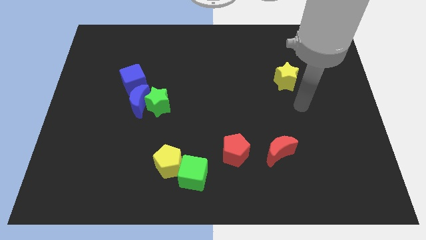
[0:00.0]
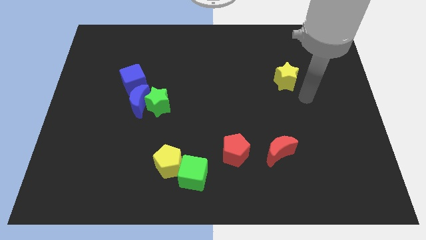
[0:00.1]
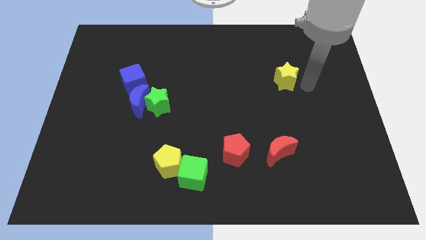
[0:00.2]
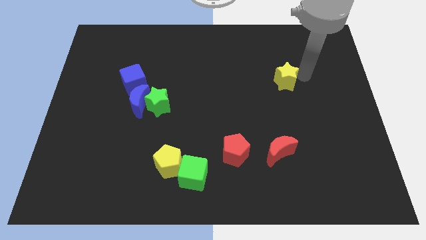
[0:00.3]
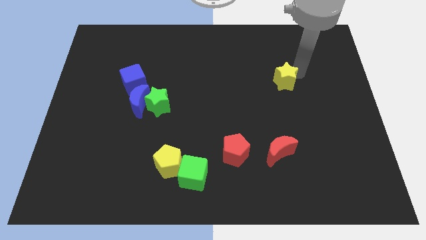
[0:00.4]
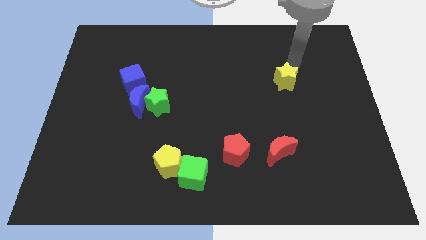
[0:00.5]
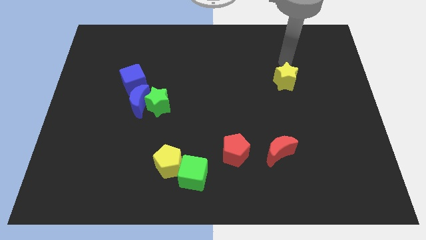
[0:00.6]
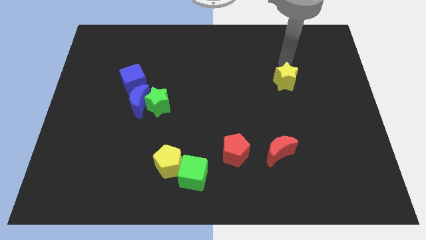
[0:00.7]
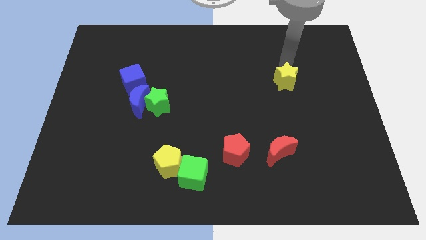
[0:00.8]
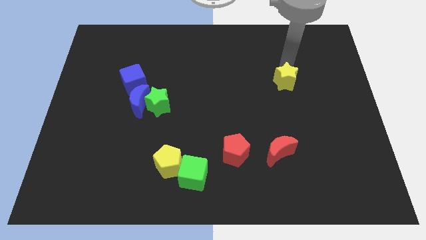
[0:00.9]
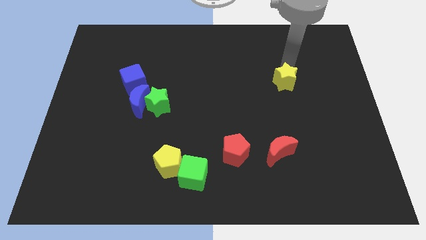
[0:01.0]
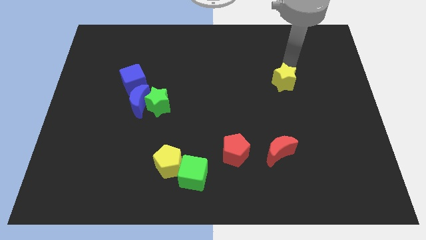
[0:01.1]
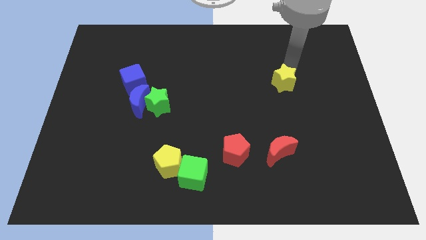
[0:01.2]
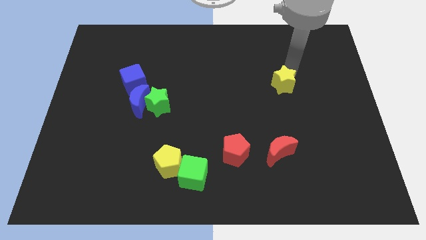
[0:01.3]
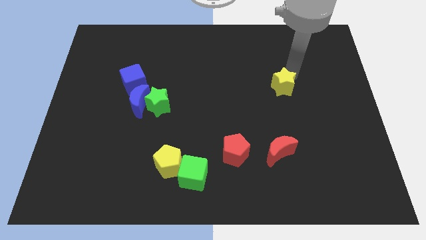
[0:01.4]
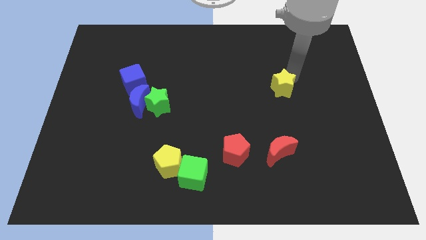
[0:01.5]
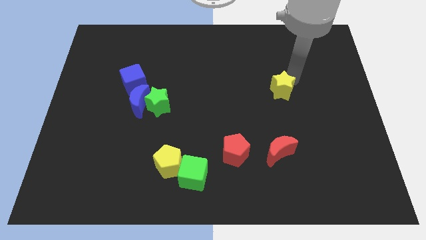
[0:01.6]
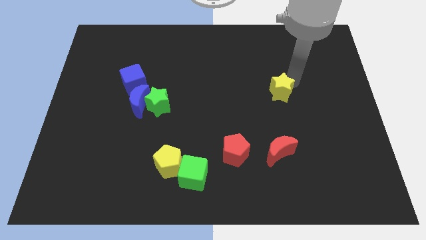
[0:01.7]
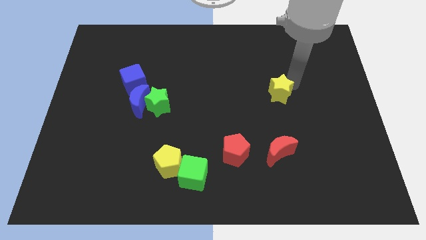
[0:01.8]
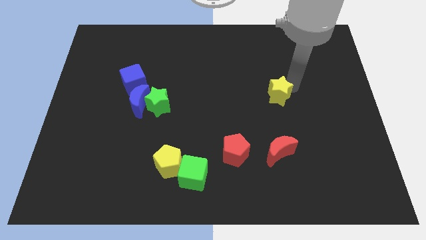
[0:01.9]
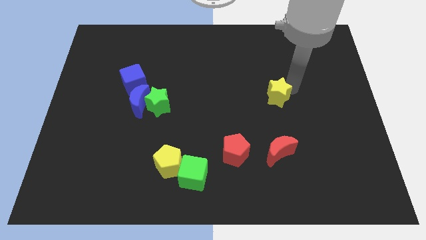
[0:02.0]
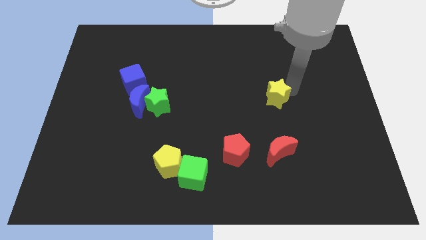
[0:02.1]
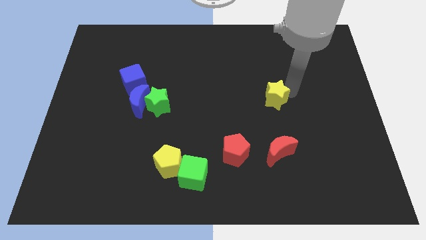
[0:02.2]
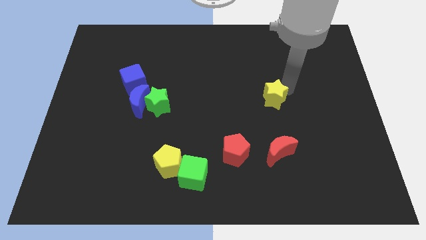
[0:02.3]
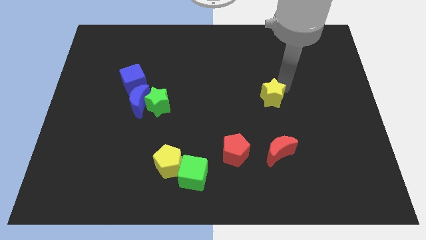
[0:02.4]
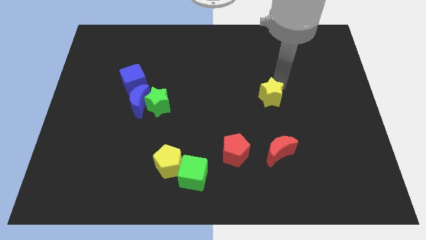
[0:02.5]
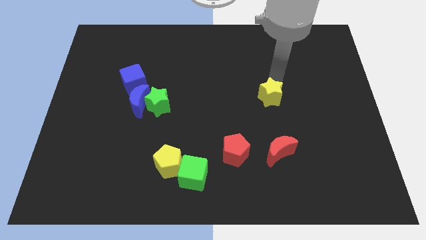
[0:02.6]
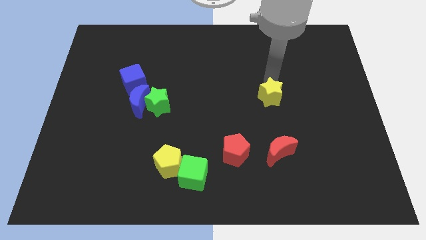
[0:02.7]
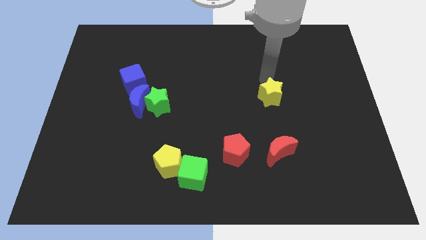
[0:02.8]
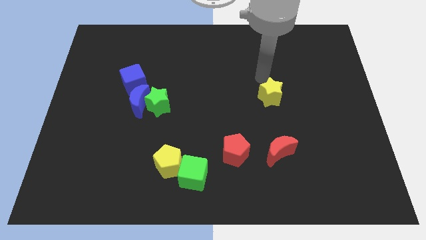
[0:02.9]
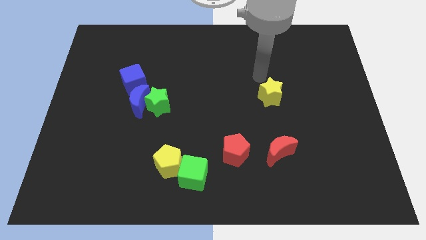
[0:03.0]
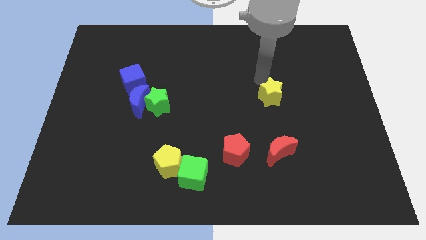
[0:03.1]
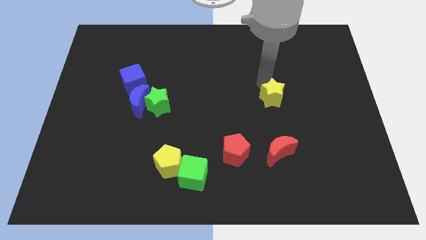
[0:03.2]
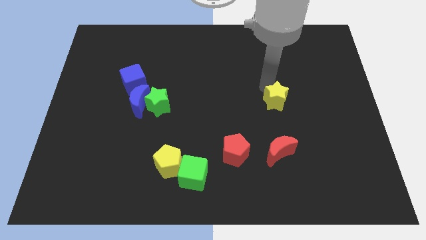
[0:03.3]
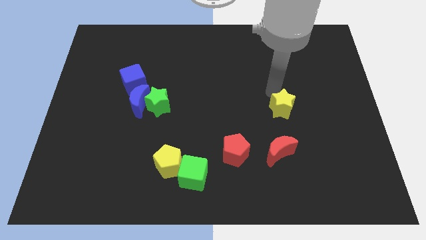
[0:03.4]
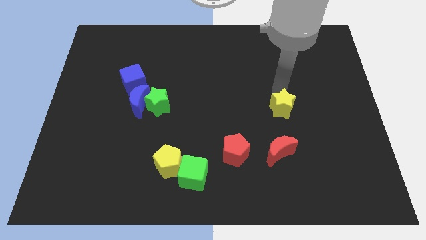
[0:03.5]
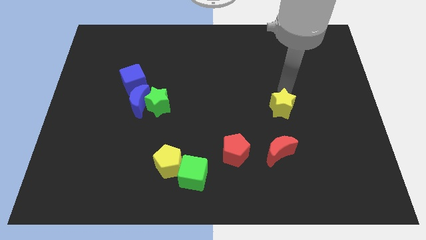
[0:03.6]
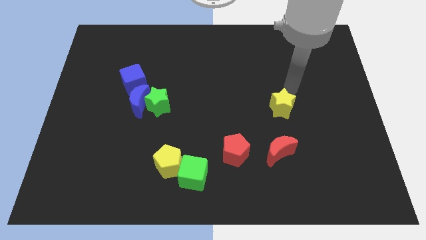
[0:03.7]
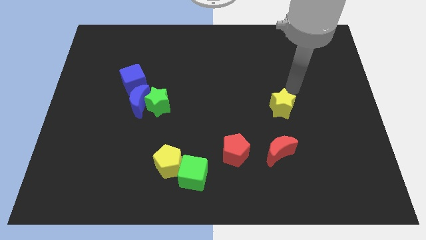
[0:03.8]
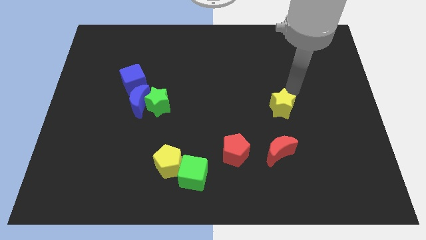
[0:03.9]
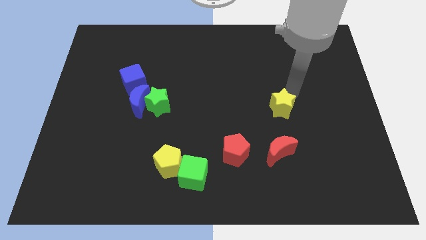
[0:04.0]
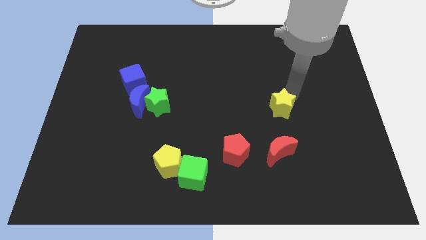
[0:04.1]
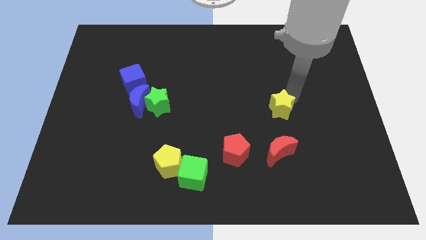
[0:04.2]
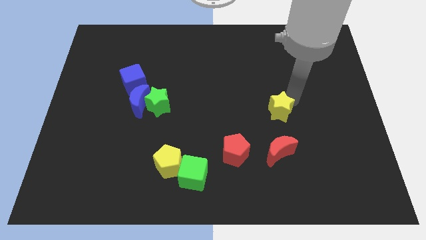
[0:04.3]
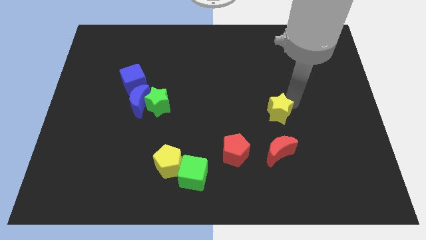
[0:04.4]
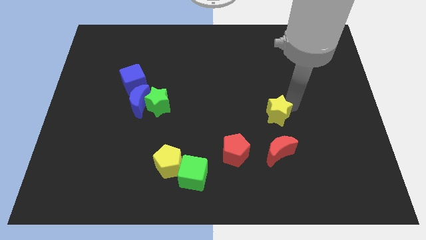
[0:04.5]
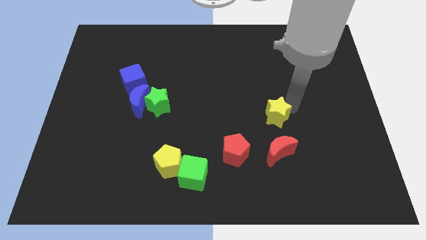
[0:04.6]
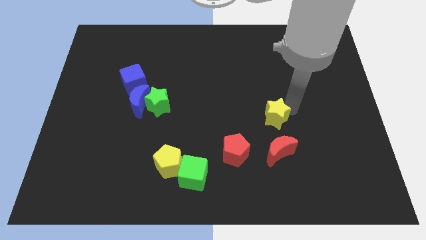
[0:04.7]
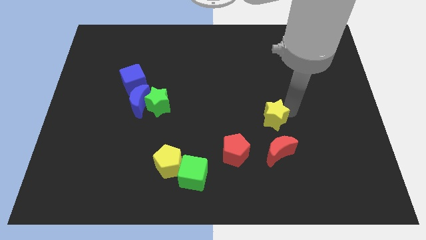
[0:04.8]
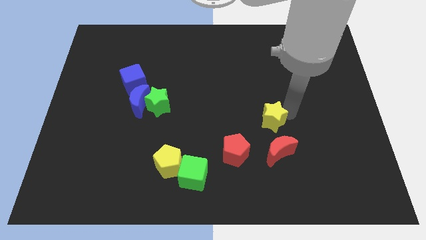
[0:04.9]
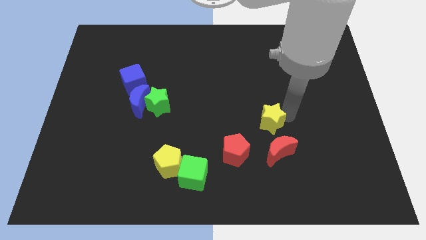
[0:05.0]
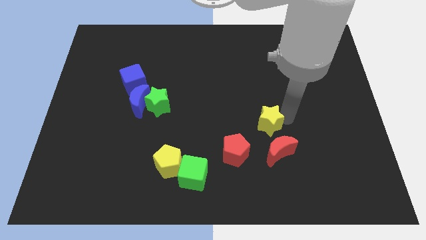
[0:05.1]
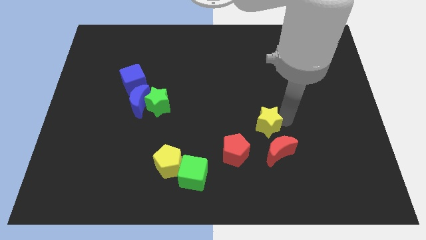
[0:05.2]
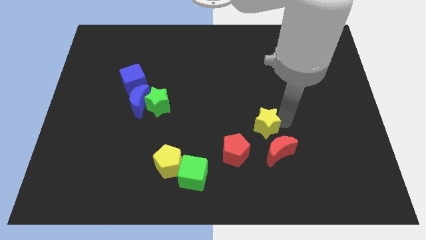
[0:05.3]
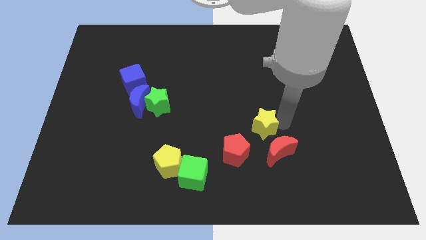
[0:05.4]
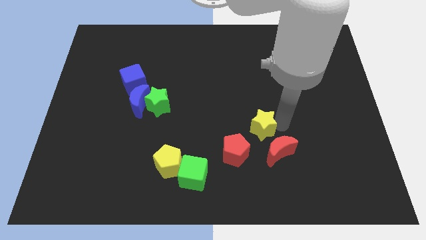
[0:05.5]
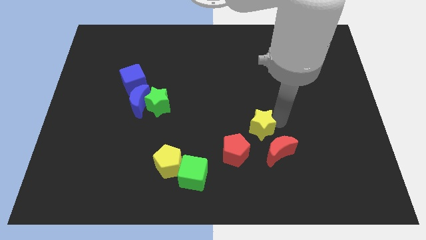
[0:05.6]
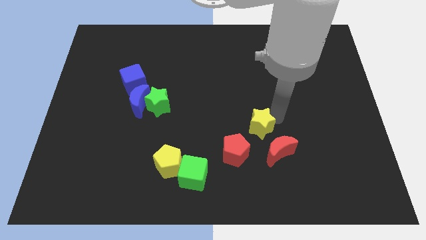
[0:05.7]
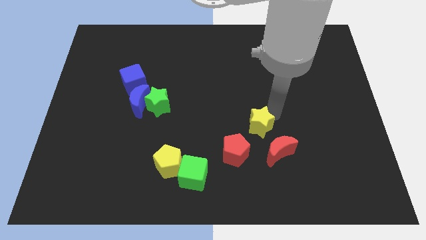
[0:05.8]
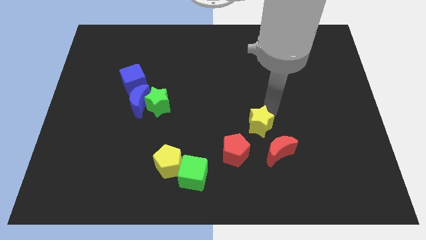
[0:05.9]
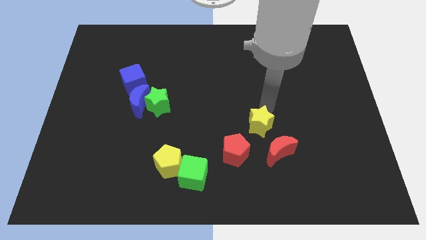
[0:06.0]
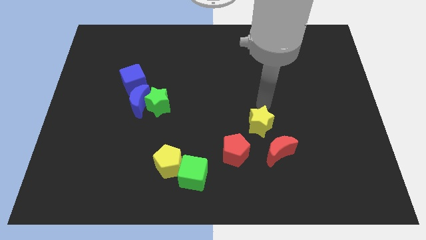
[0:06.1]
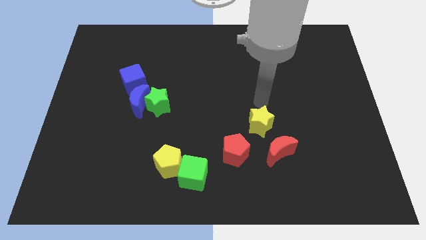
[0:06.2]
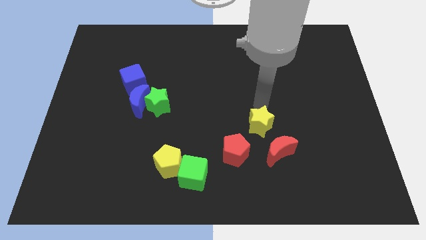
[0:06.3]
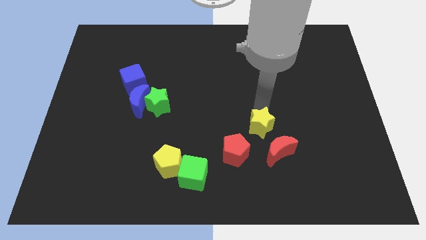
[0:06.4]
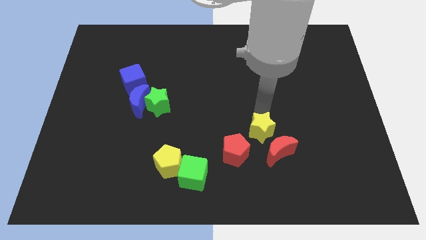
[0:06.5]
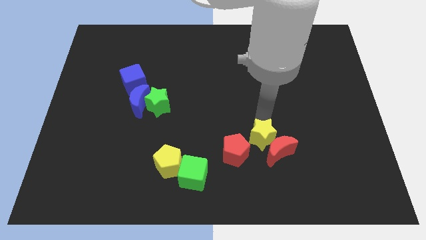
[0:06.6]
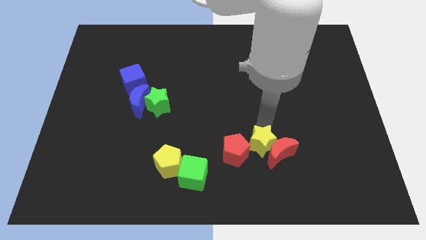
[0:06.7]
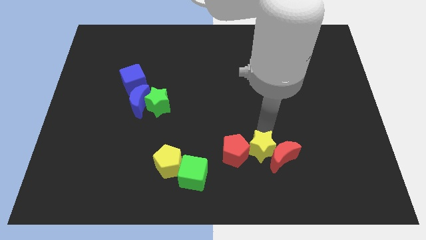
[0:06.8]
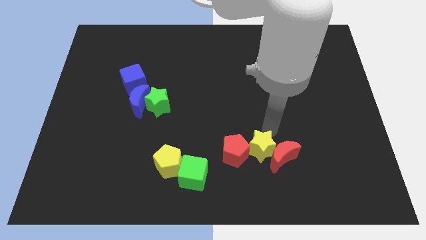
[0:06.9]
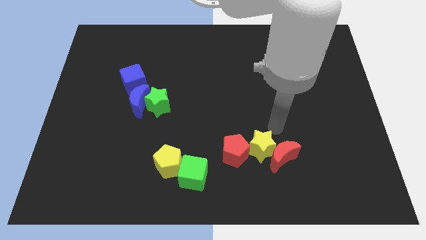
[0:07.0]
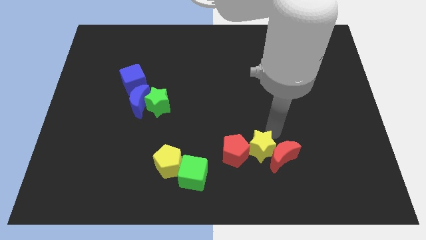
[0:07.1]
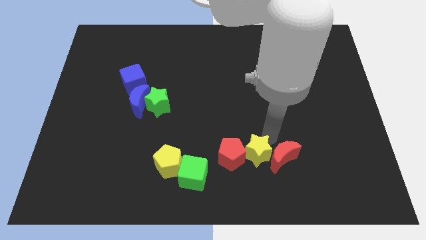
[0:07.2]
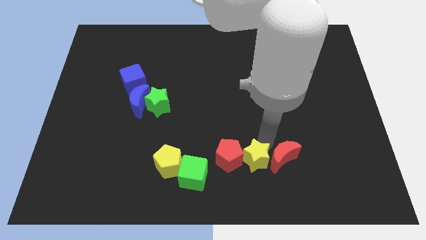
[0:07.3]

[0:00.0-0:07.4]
move the yellow star right of the green cube
